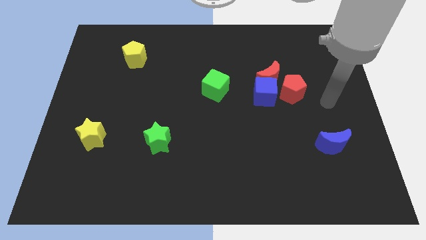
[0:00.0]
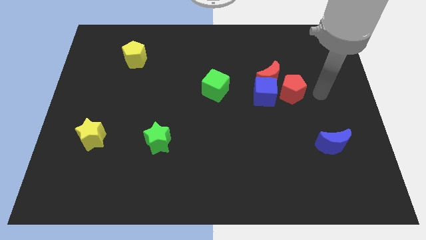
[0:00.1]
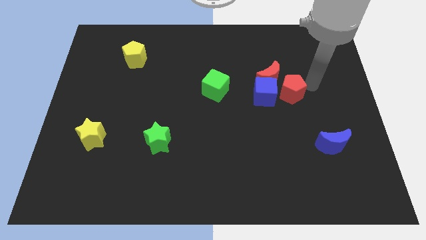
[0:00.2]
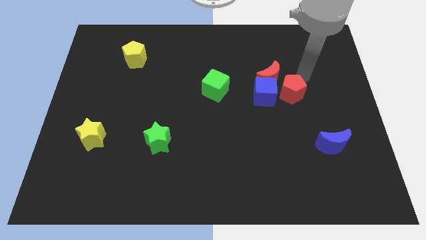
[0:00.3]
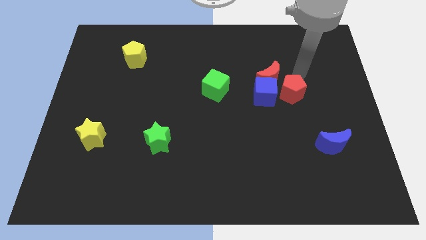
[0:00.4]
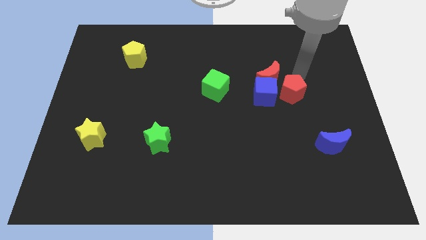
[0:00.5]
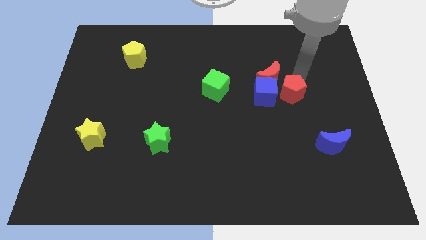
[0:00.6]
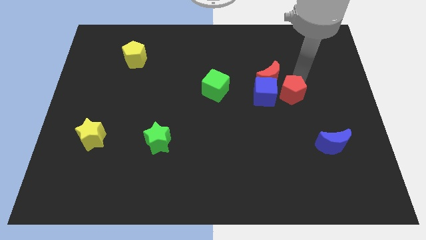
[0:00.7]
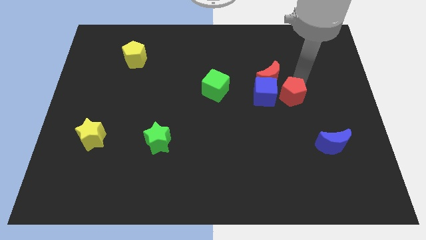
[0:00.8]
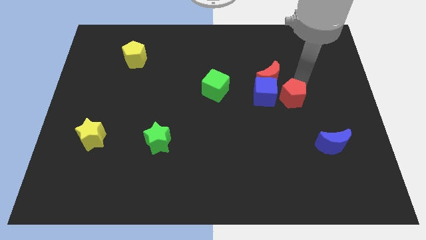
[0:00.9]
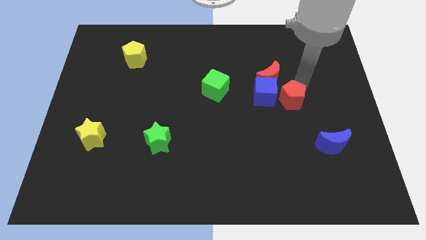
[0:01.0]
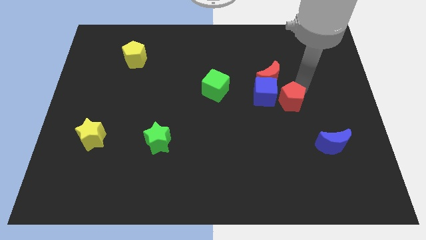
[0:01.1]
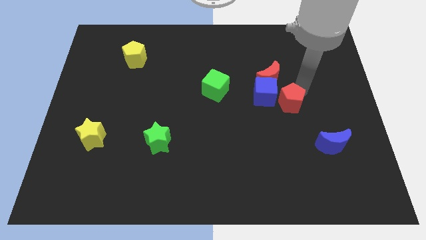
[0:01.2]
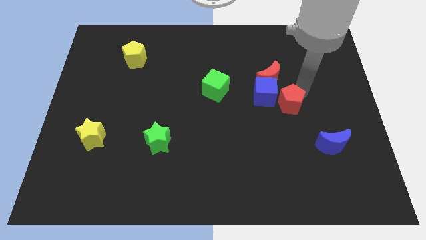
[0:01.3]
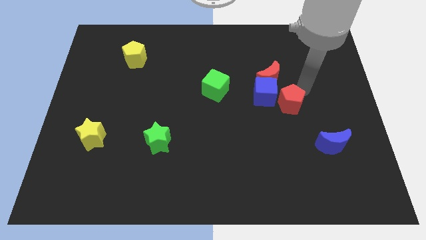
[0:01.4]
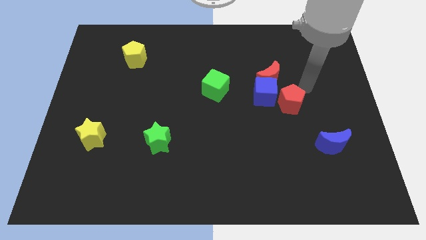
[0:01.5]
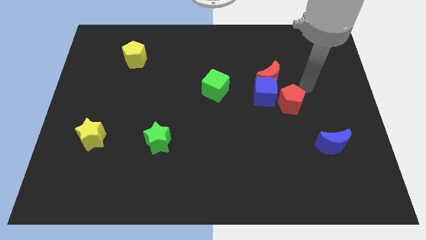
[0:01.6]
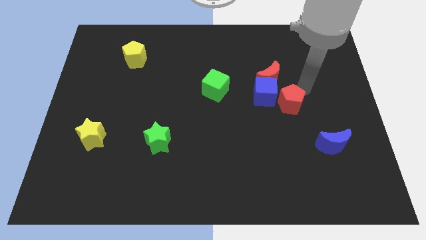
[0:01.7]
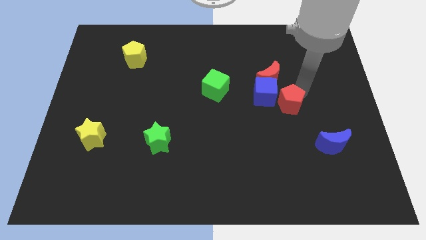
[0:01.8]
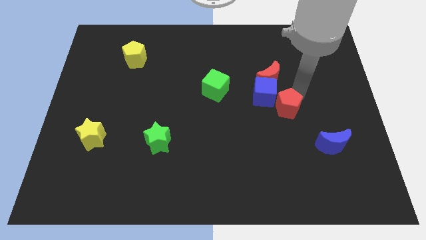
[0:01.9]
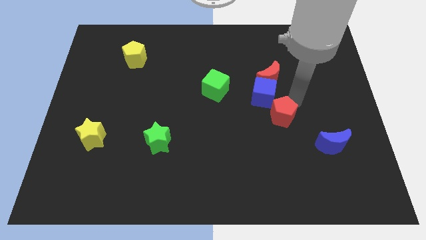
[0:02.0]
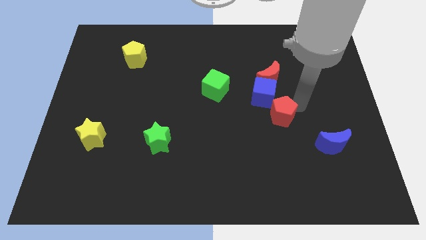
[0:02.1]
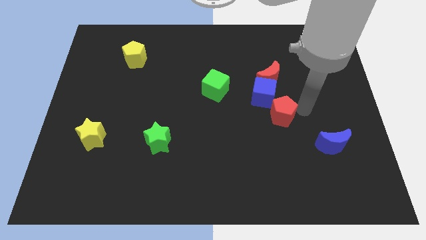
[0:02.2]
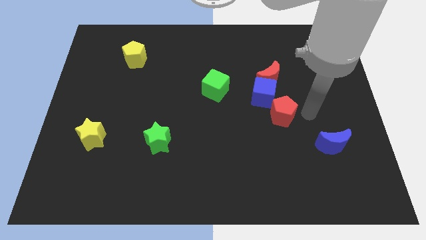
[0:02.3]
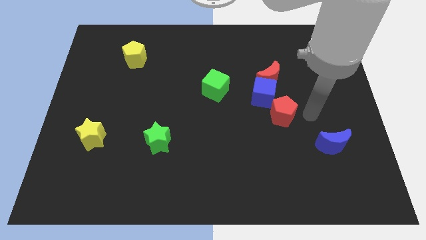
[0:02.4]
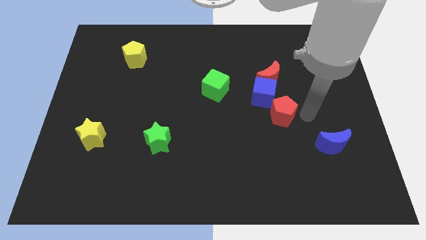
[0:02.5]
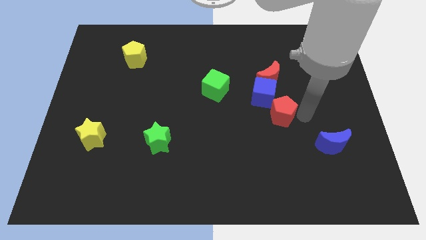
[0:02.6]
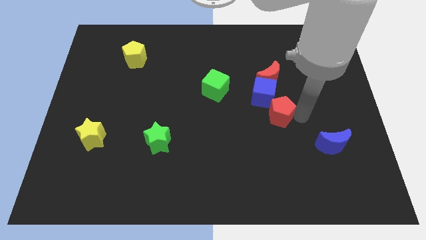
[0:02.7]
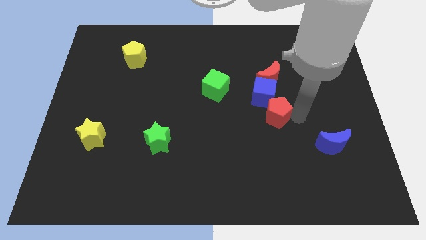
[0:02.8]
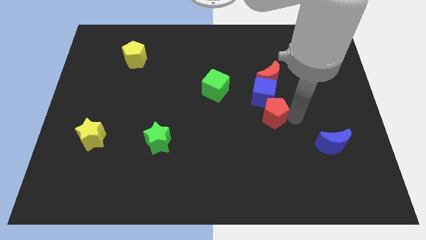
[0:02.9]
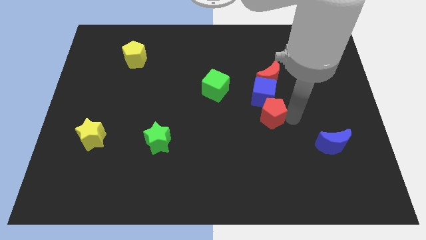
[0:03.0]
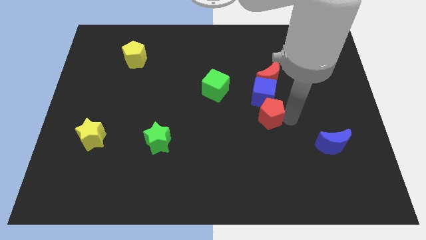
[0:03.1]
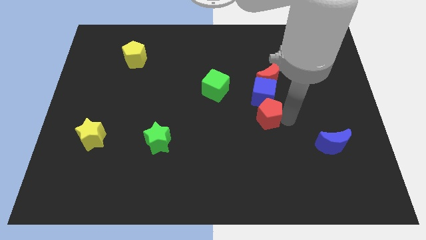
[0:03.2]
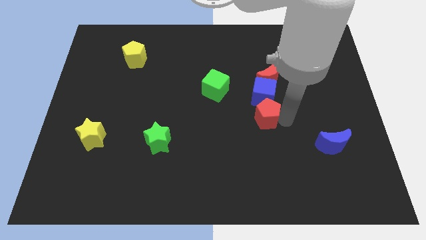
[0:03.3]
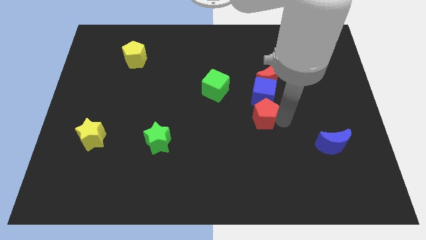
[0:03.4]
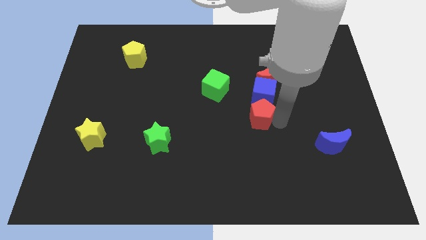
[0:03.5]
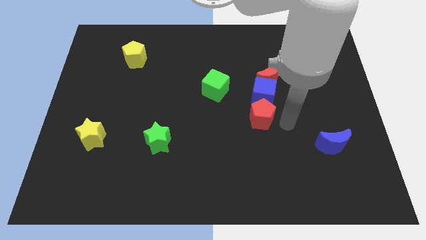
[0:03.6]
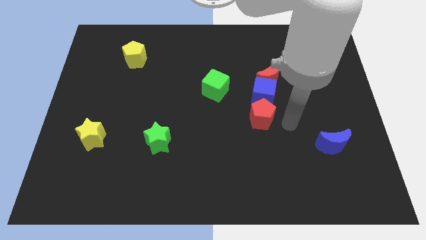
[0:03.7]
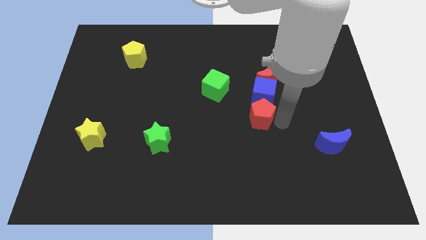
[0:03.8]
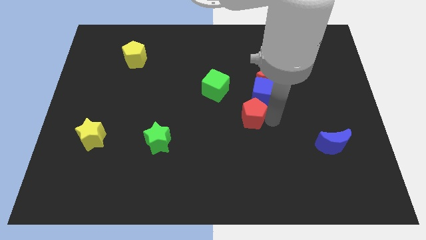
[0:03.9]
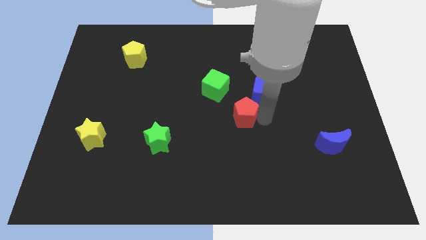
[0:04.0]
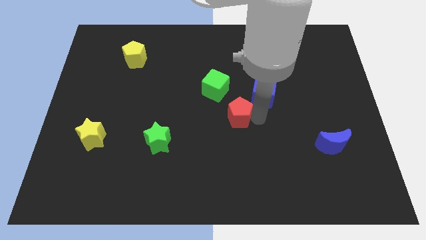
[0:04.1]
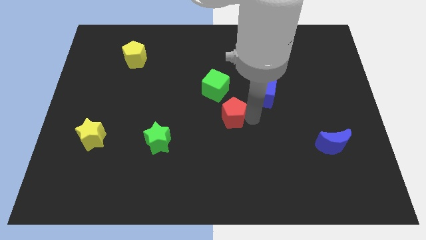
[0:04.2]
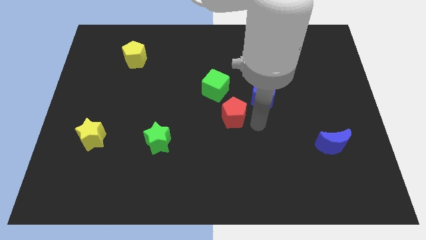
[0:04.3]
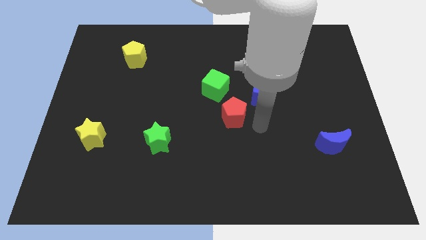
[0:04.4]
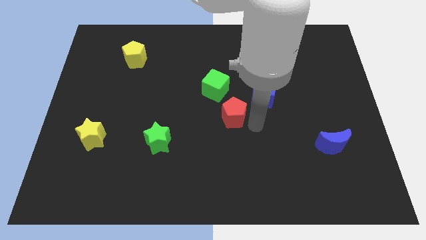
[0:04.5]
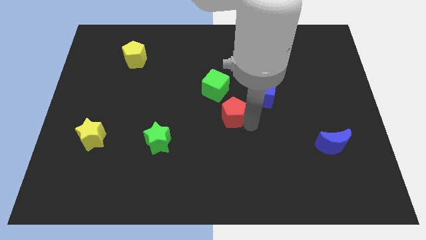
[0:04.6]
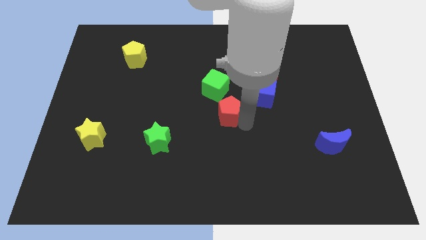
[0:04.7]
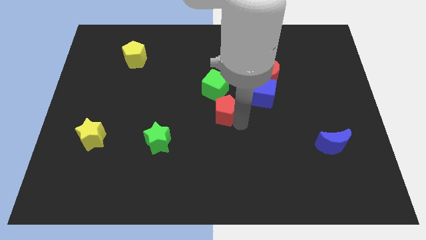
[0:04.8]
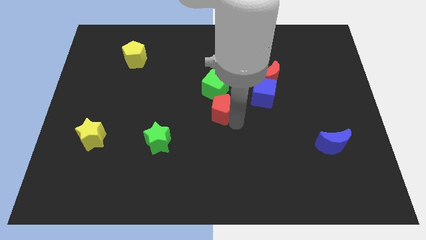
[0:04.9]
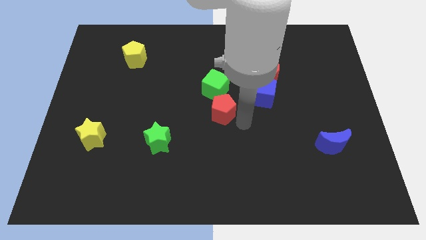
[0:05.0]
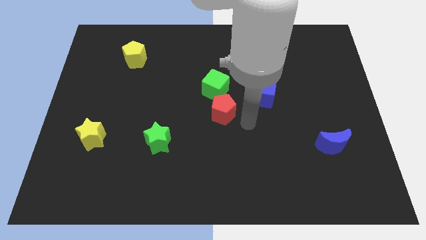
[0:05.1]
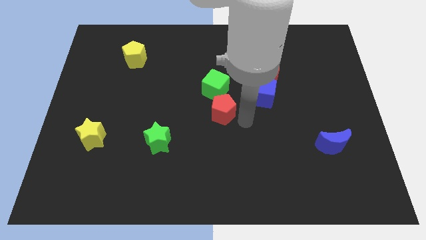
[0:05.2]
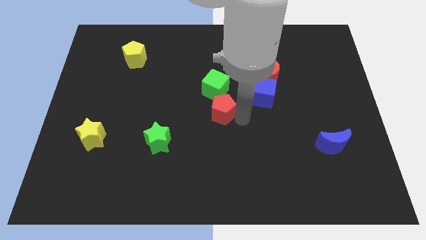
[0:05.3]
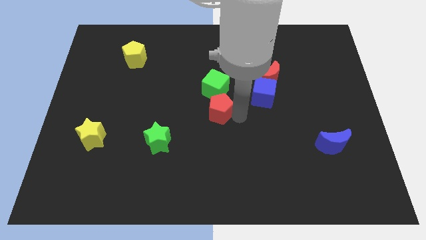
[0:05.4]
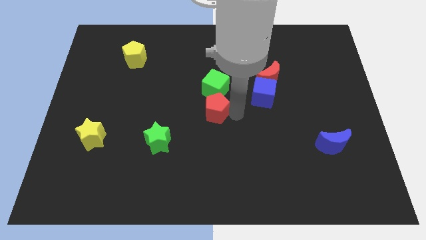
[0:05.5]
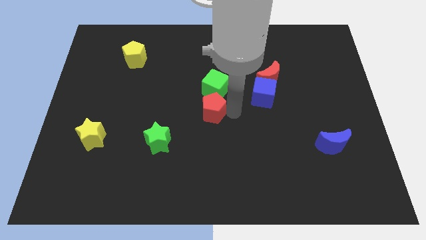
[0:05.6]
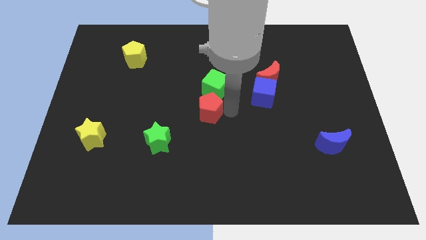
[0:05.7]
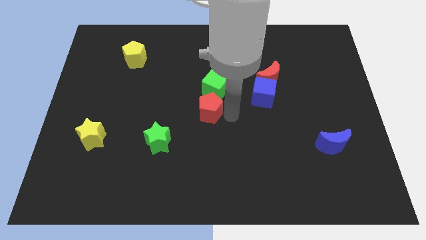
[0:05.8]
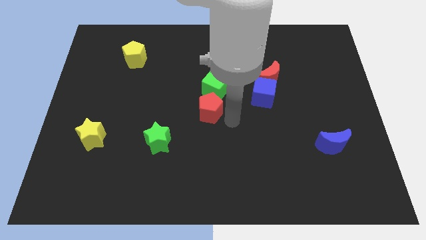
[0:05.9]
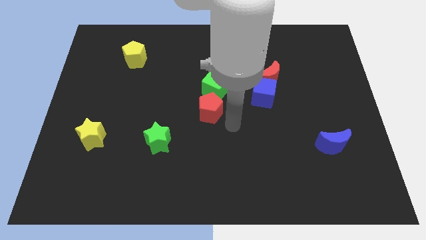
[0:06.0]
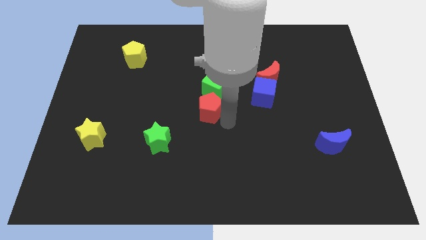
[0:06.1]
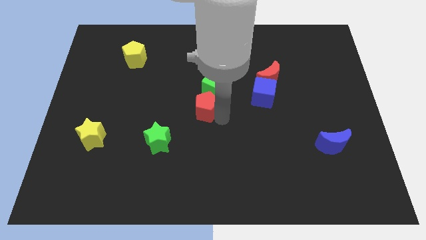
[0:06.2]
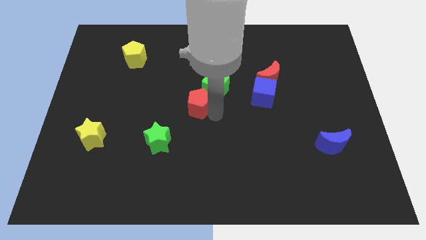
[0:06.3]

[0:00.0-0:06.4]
slide the red pentagon left

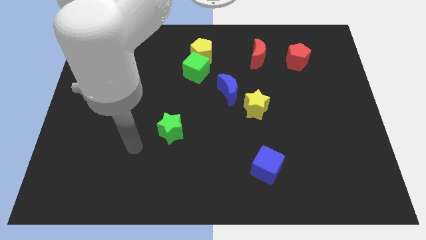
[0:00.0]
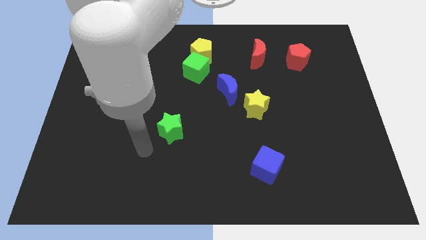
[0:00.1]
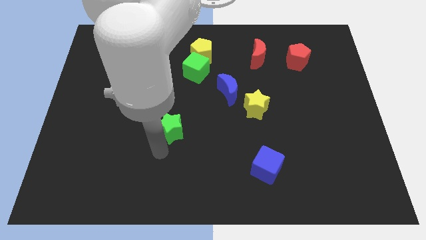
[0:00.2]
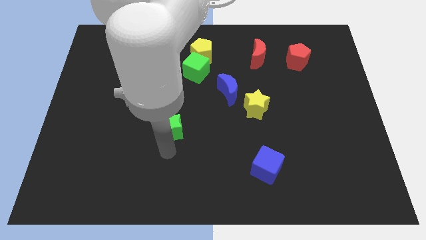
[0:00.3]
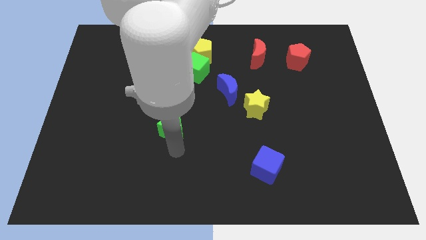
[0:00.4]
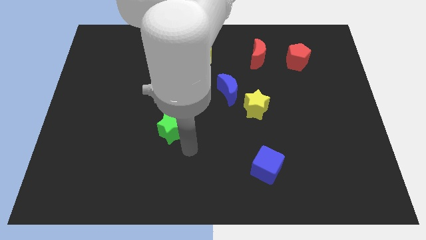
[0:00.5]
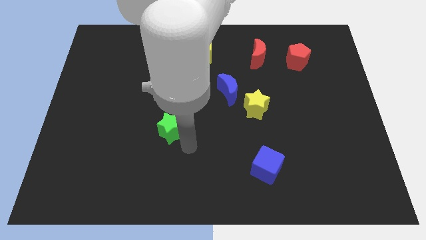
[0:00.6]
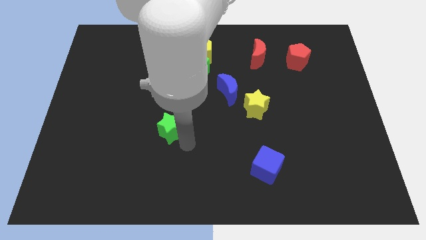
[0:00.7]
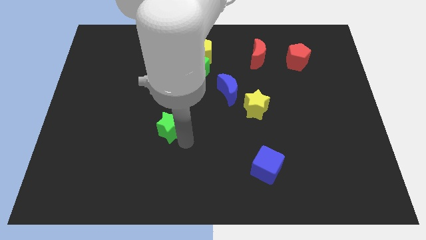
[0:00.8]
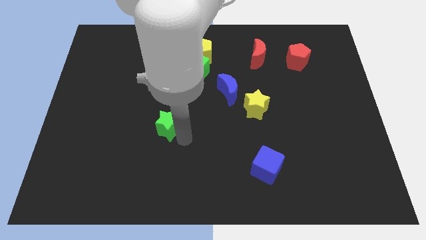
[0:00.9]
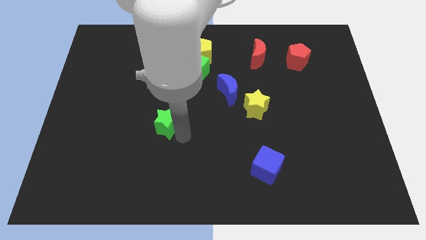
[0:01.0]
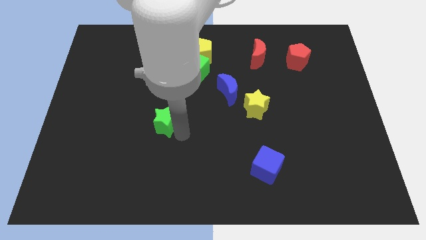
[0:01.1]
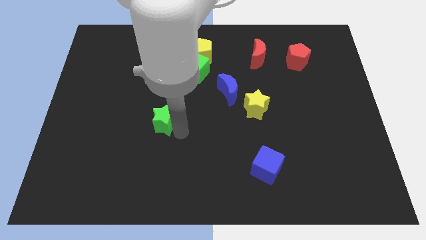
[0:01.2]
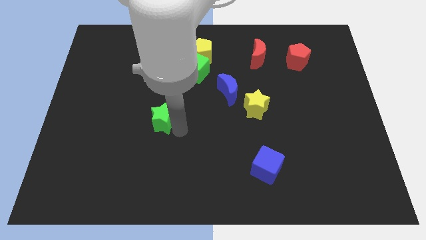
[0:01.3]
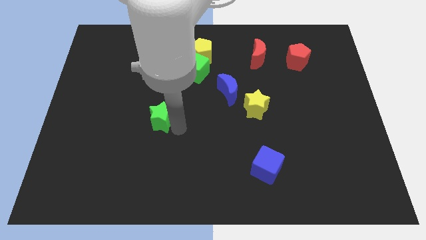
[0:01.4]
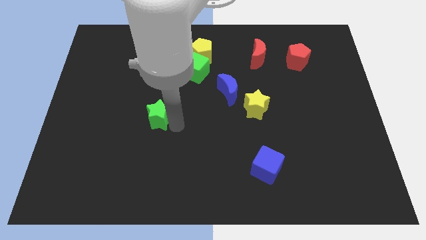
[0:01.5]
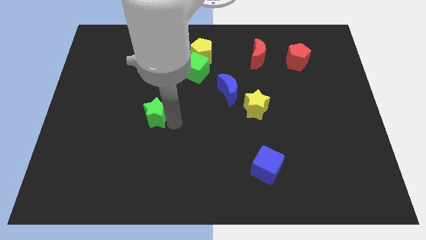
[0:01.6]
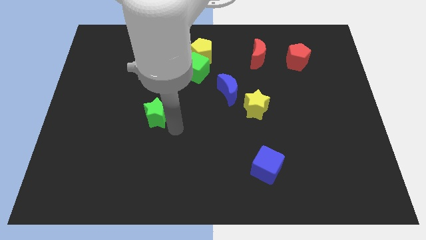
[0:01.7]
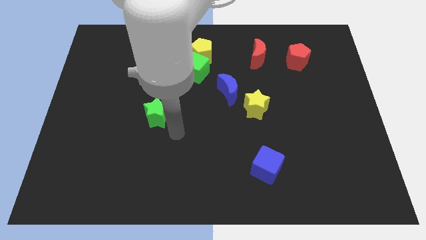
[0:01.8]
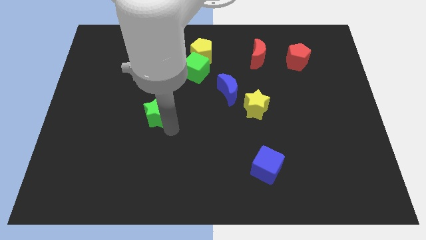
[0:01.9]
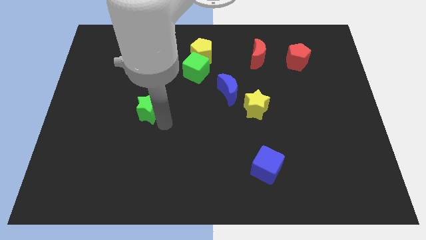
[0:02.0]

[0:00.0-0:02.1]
move the green star upwards and then left a little bit

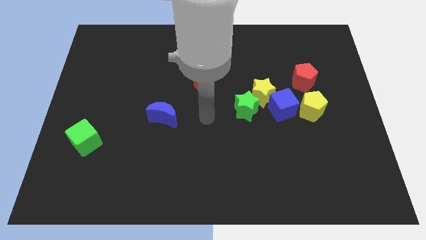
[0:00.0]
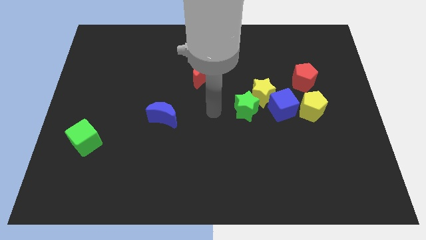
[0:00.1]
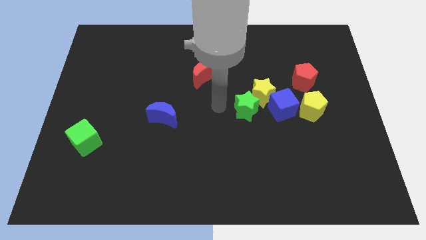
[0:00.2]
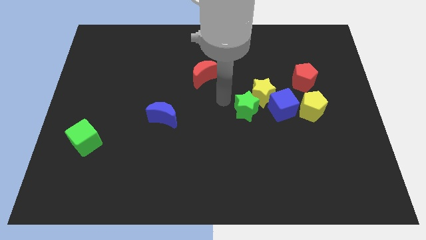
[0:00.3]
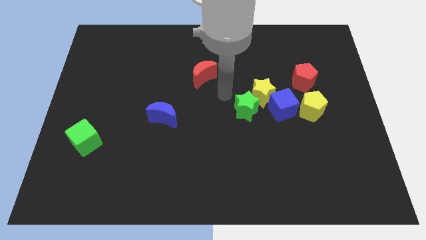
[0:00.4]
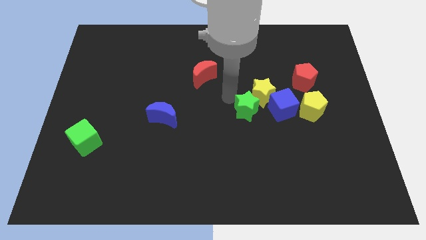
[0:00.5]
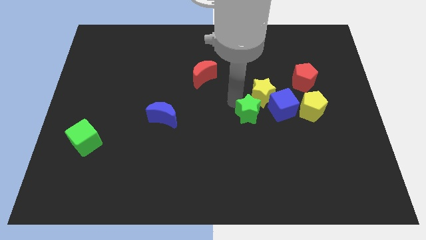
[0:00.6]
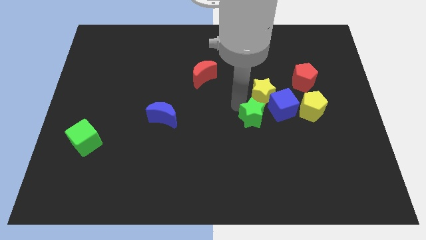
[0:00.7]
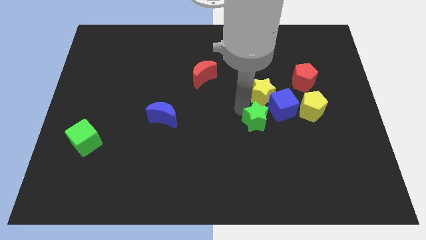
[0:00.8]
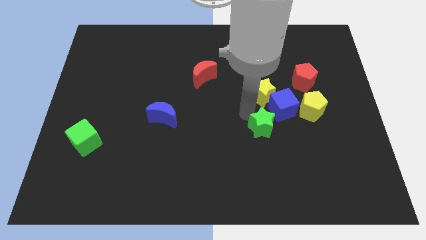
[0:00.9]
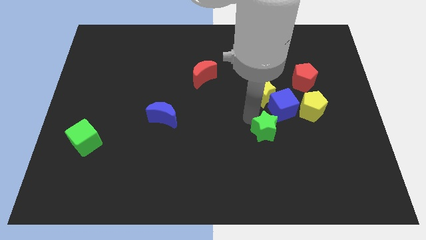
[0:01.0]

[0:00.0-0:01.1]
move the green star a little downwards and then right
